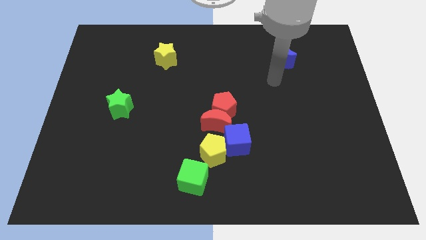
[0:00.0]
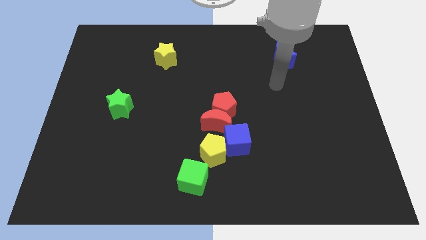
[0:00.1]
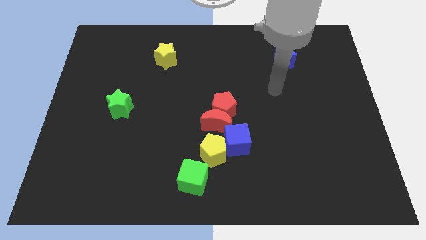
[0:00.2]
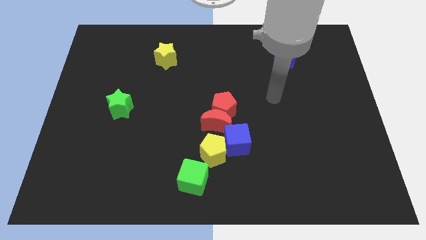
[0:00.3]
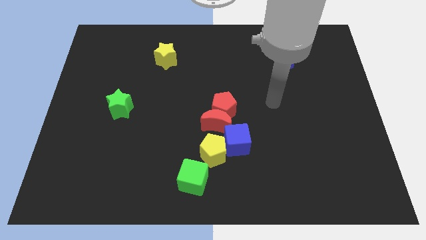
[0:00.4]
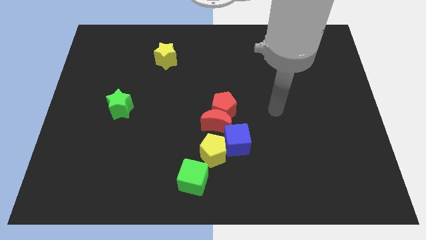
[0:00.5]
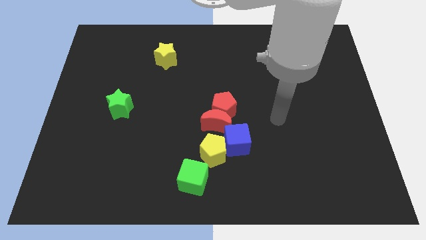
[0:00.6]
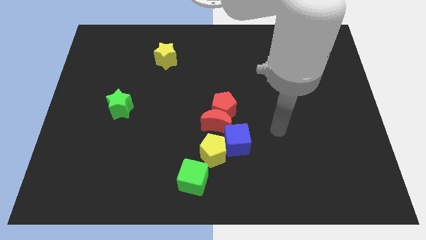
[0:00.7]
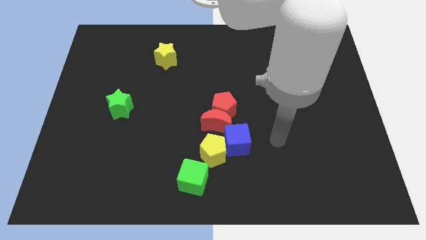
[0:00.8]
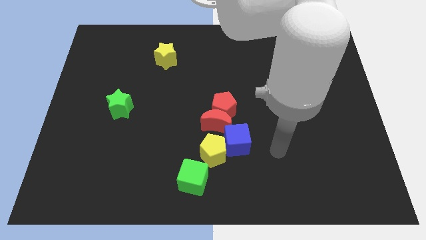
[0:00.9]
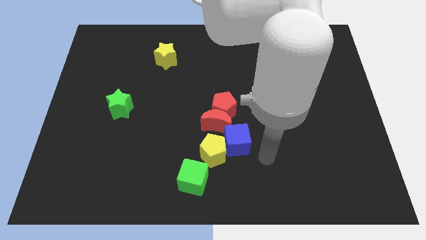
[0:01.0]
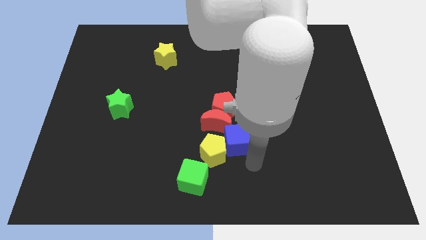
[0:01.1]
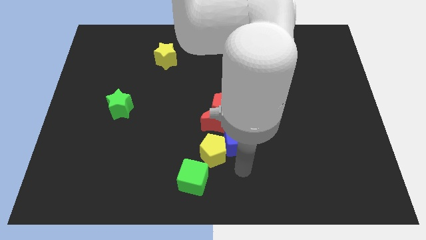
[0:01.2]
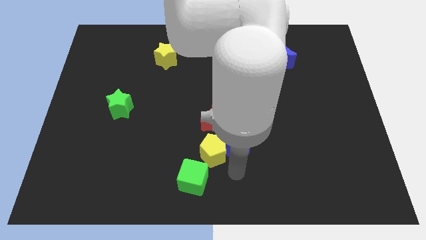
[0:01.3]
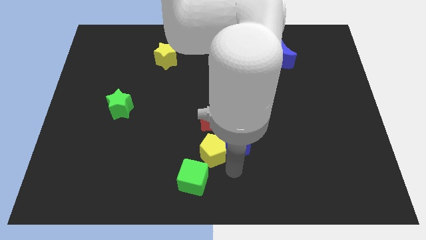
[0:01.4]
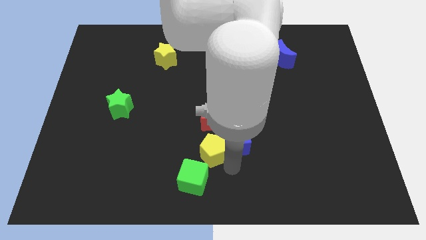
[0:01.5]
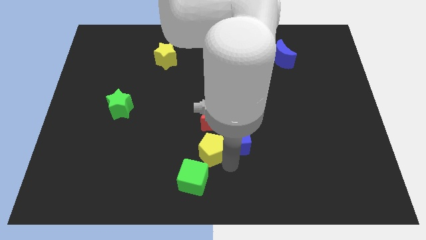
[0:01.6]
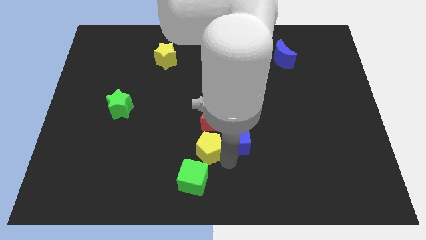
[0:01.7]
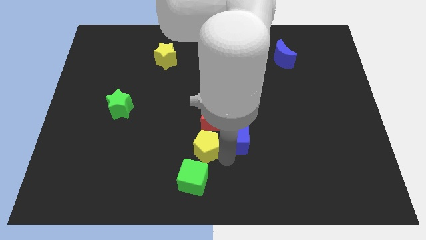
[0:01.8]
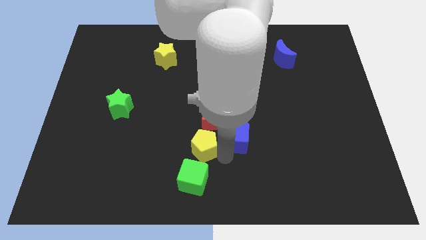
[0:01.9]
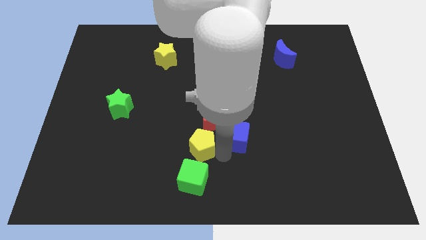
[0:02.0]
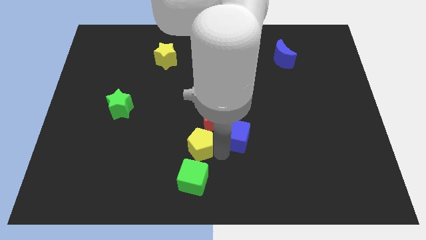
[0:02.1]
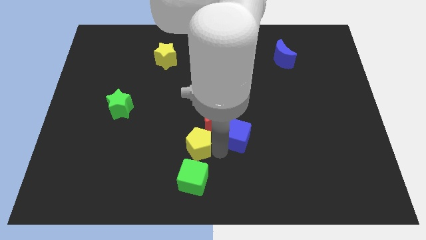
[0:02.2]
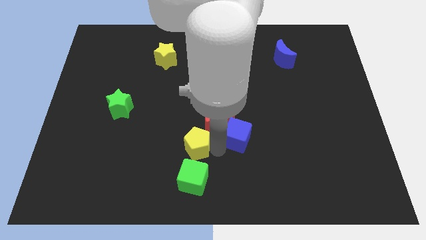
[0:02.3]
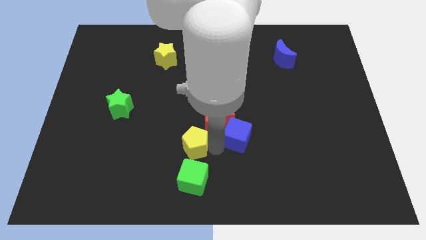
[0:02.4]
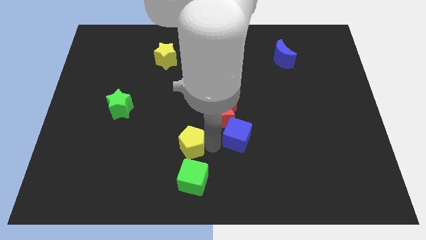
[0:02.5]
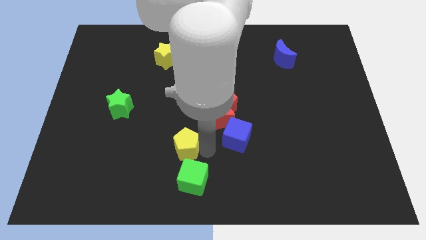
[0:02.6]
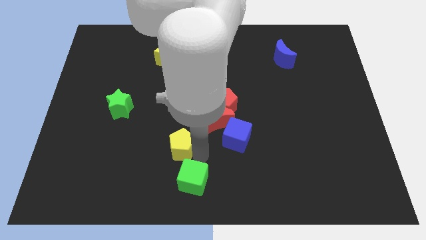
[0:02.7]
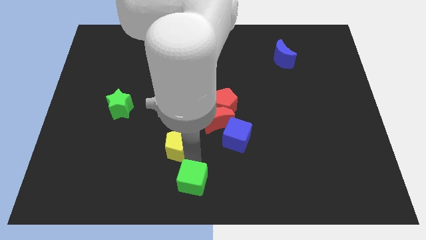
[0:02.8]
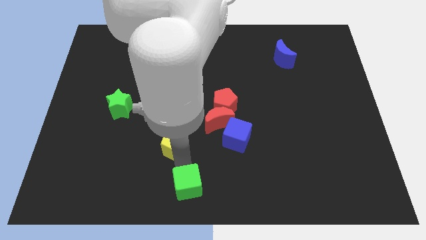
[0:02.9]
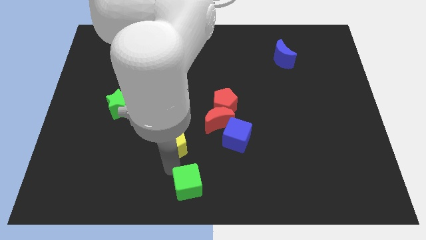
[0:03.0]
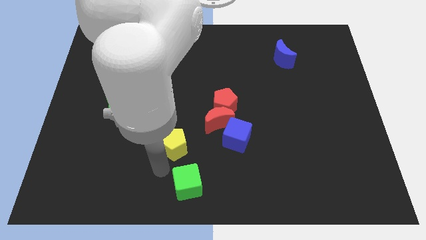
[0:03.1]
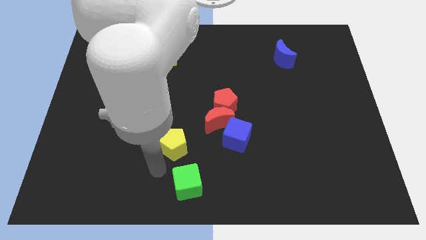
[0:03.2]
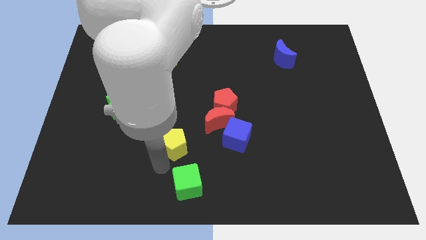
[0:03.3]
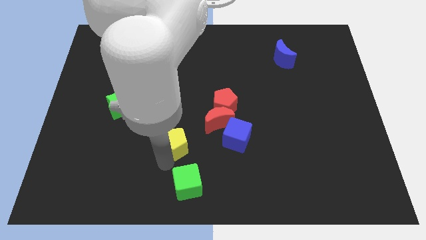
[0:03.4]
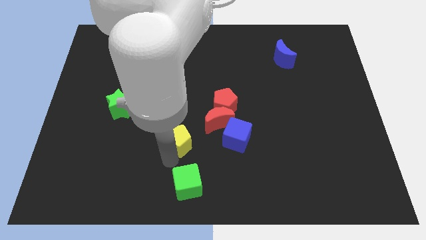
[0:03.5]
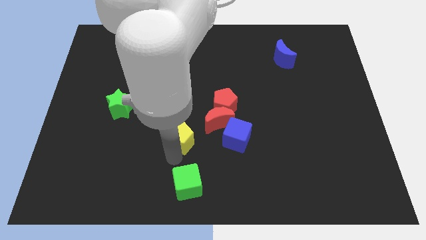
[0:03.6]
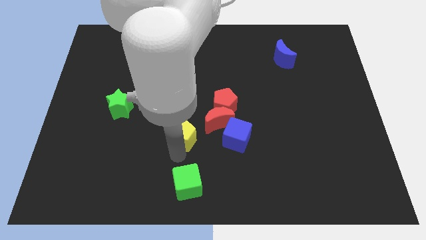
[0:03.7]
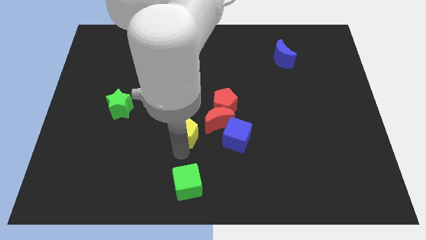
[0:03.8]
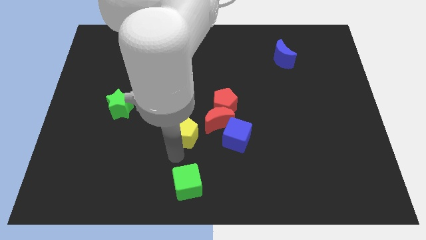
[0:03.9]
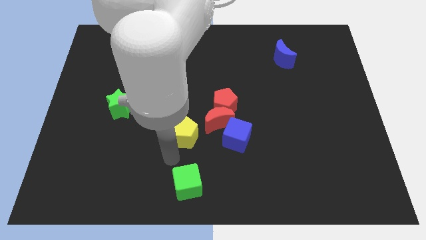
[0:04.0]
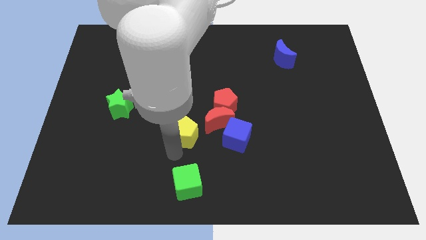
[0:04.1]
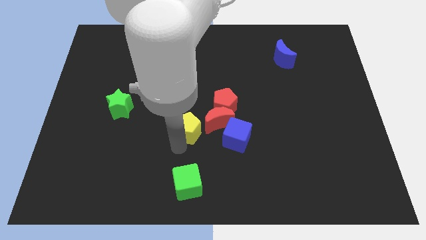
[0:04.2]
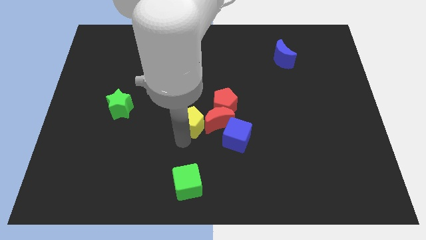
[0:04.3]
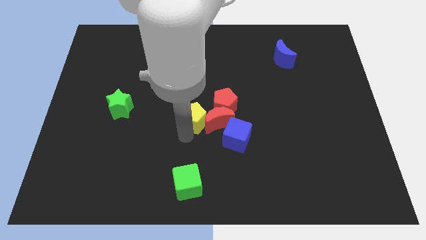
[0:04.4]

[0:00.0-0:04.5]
slide the yellow pentagon upwards a little

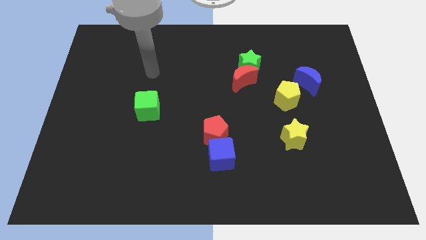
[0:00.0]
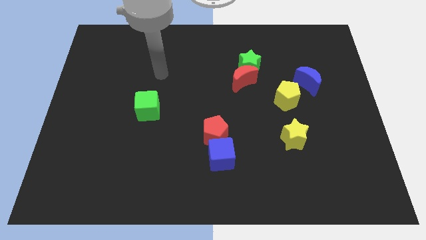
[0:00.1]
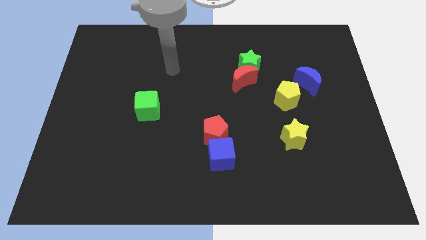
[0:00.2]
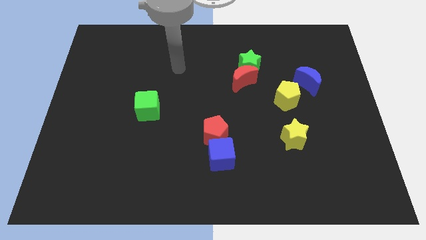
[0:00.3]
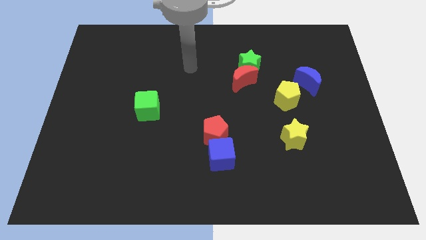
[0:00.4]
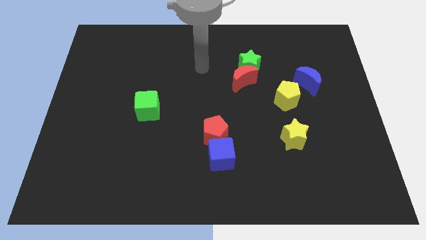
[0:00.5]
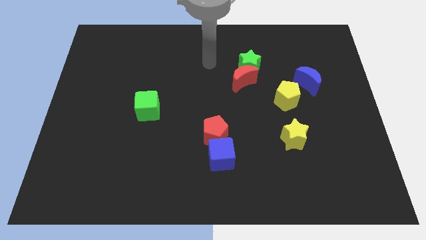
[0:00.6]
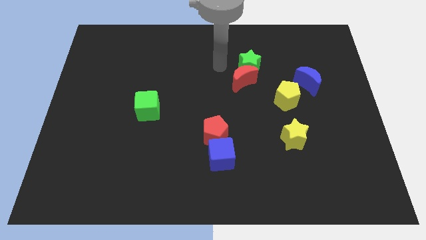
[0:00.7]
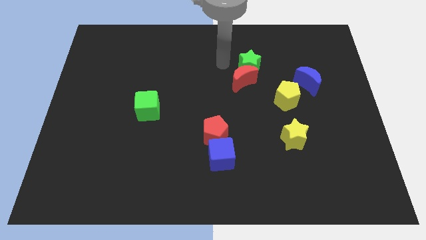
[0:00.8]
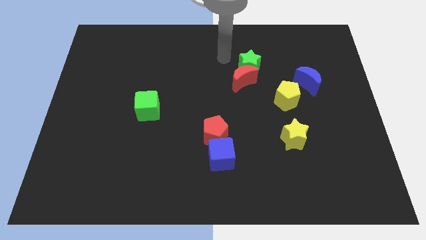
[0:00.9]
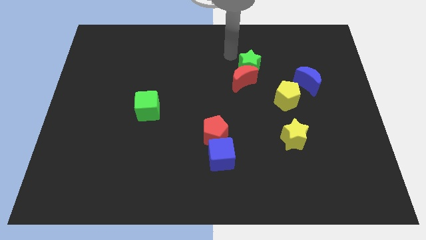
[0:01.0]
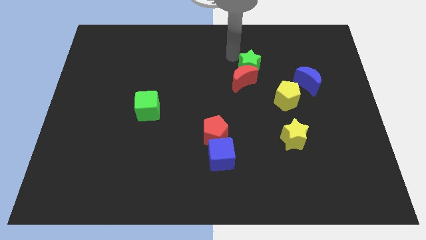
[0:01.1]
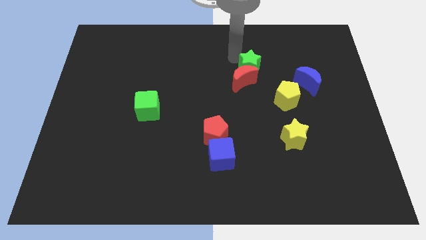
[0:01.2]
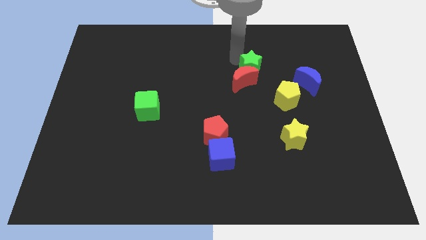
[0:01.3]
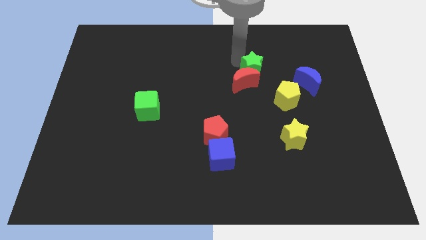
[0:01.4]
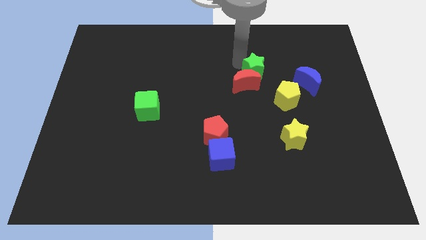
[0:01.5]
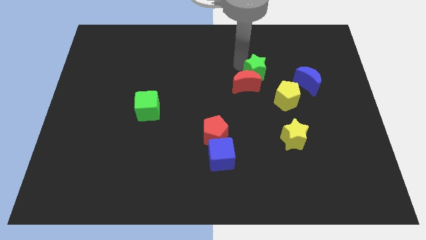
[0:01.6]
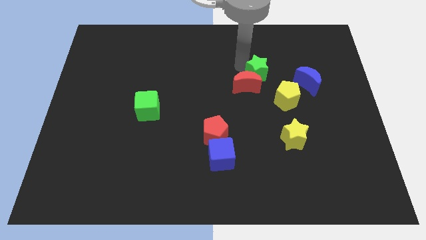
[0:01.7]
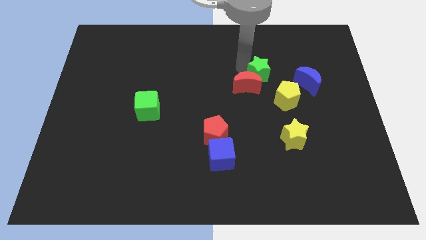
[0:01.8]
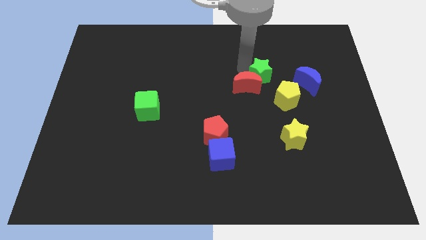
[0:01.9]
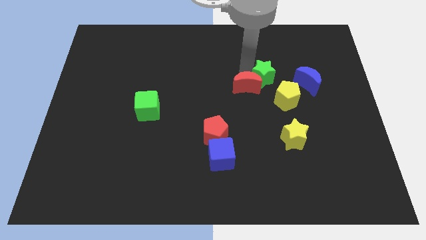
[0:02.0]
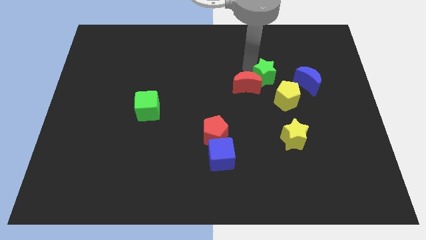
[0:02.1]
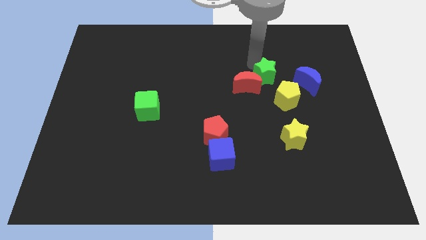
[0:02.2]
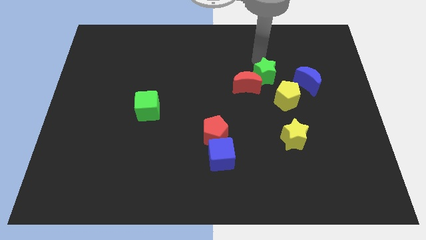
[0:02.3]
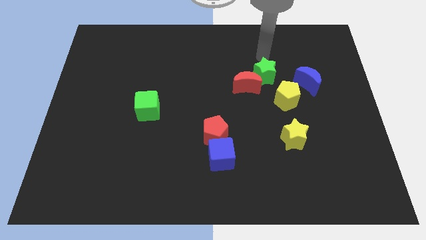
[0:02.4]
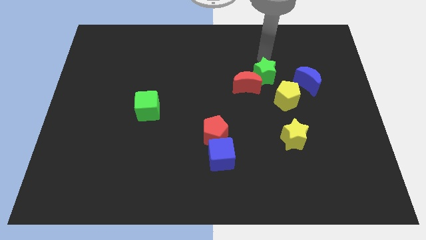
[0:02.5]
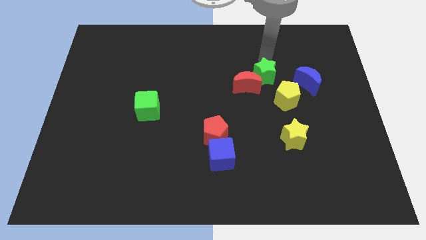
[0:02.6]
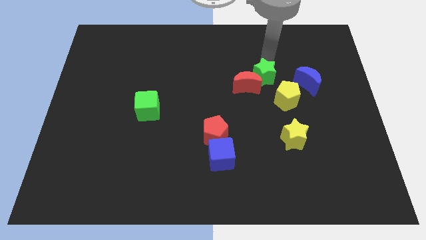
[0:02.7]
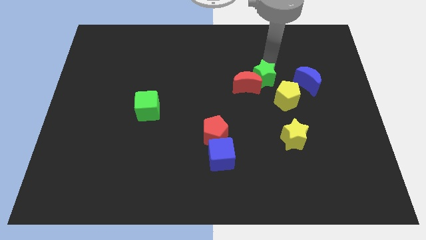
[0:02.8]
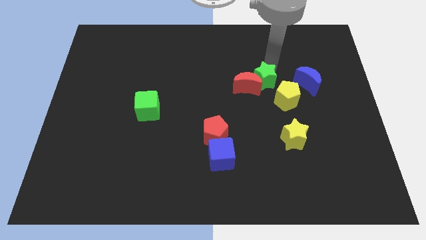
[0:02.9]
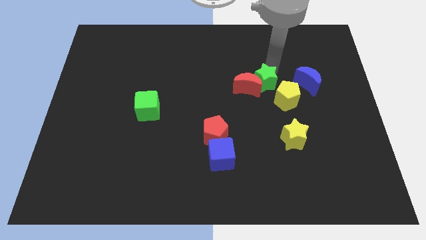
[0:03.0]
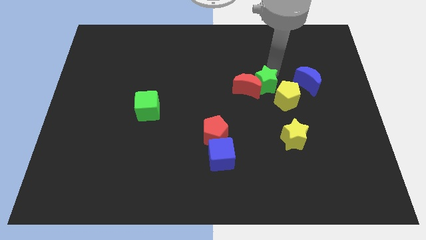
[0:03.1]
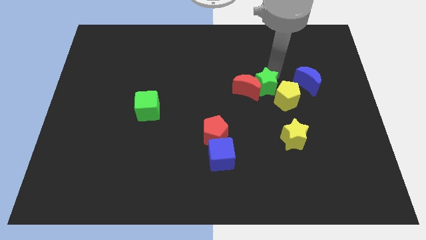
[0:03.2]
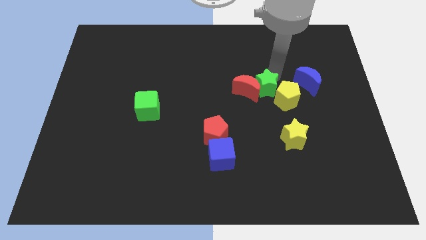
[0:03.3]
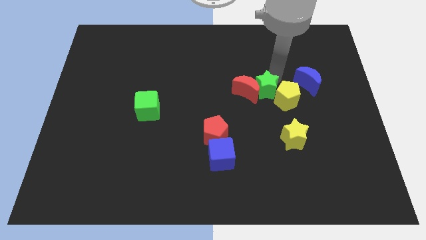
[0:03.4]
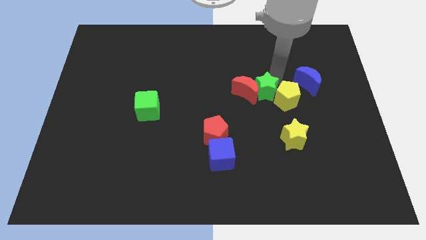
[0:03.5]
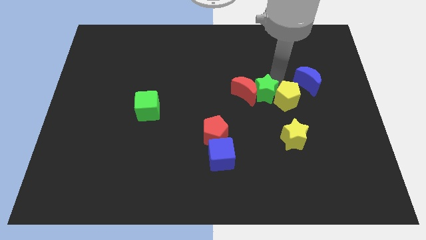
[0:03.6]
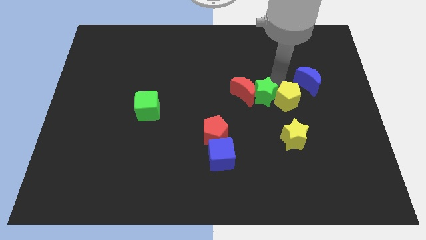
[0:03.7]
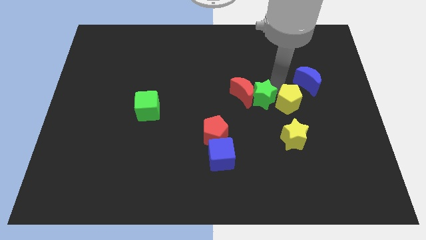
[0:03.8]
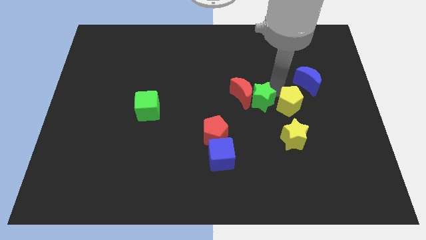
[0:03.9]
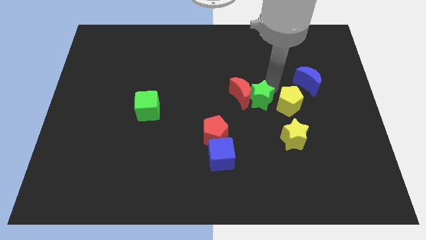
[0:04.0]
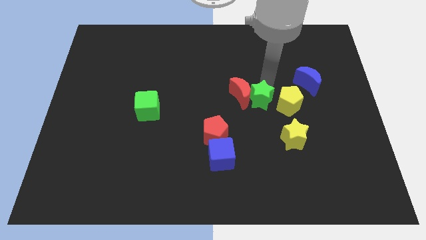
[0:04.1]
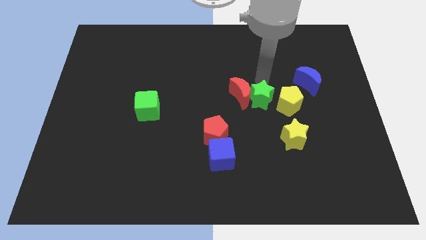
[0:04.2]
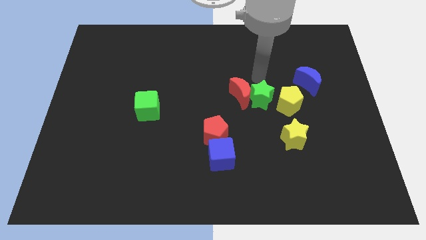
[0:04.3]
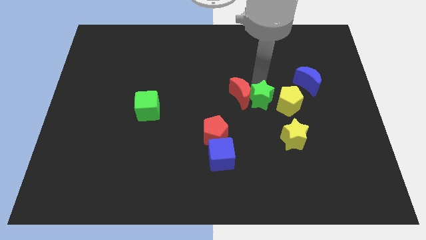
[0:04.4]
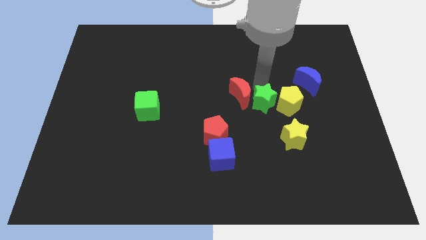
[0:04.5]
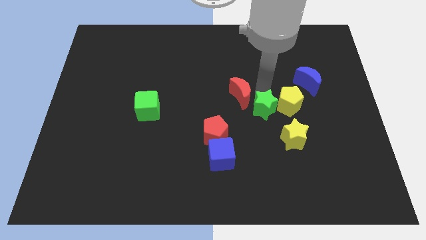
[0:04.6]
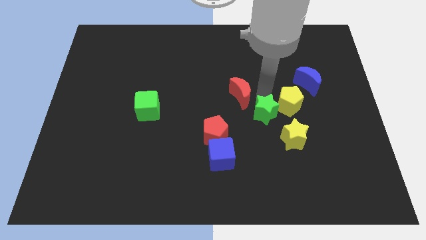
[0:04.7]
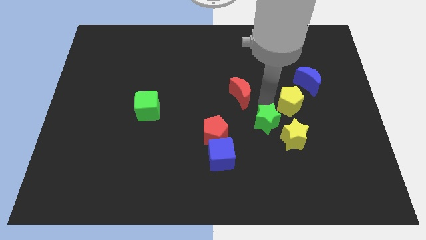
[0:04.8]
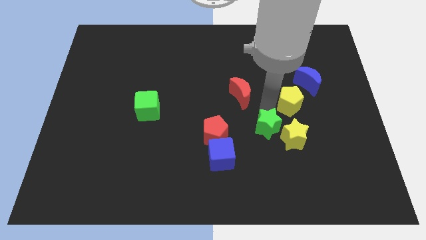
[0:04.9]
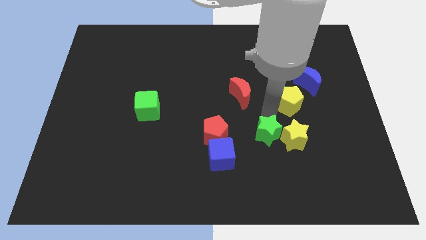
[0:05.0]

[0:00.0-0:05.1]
move the green star down
